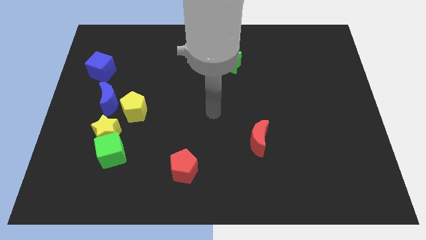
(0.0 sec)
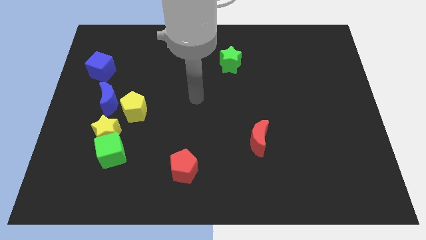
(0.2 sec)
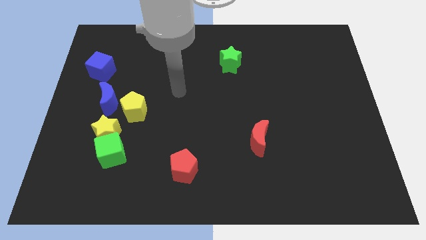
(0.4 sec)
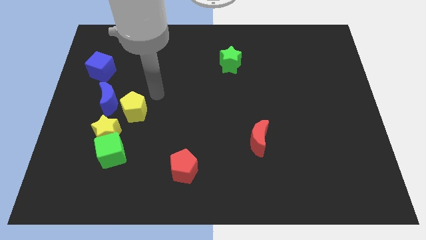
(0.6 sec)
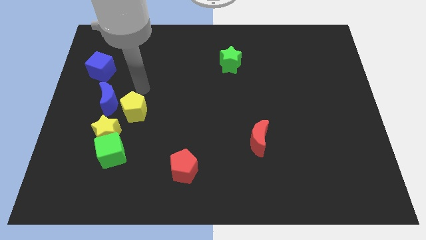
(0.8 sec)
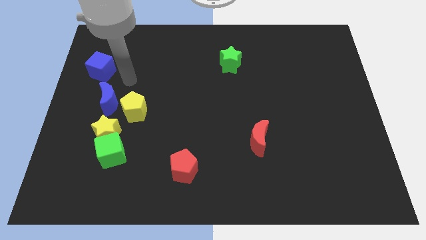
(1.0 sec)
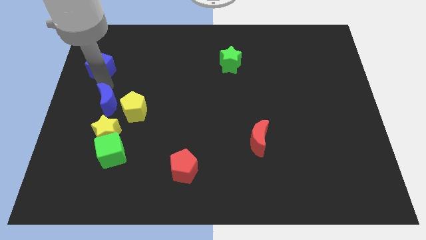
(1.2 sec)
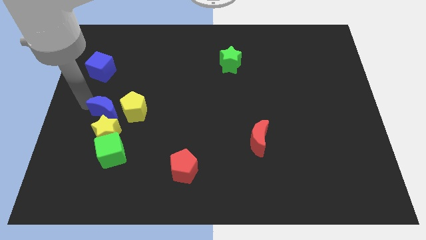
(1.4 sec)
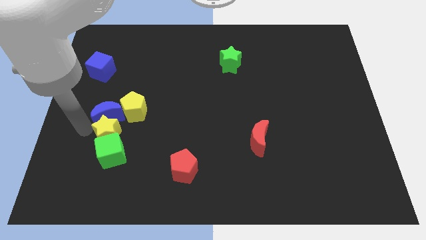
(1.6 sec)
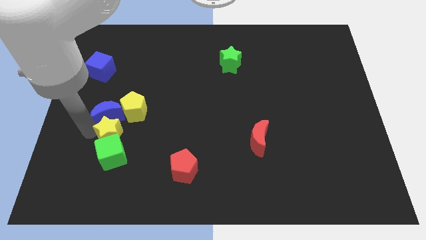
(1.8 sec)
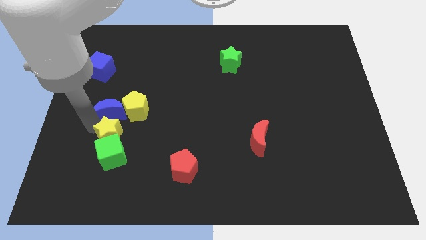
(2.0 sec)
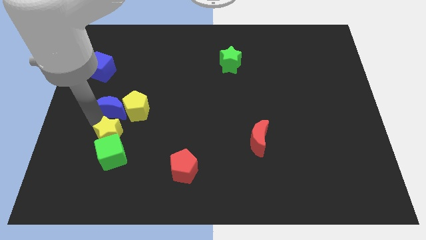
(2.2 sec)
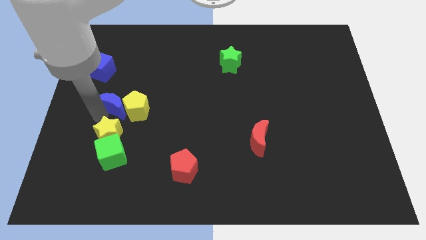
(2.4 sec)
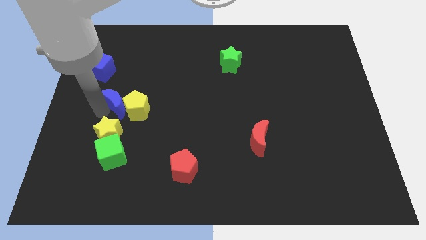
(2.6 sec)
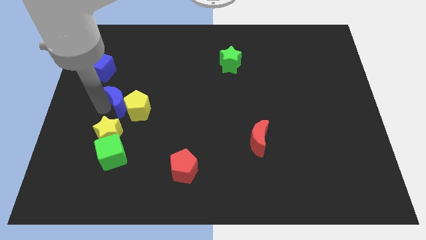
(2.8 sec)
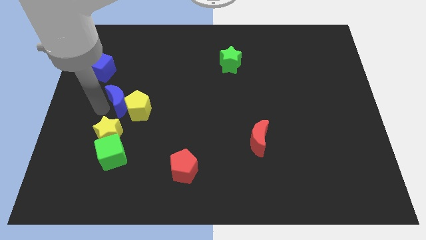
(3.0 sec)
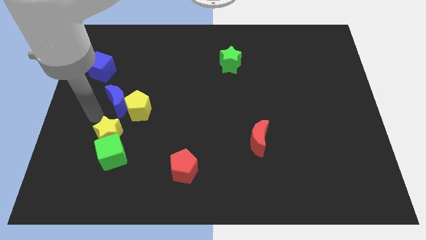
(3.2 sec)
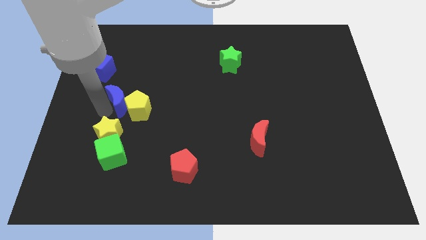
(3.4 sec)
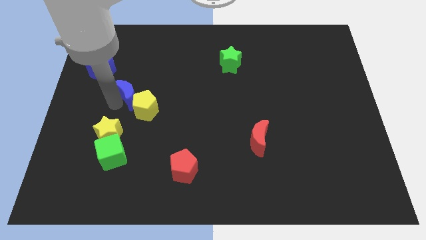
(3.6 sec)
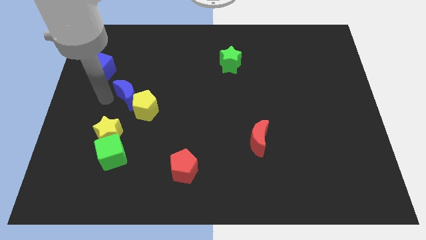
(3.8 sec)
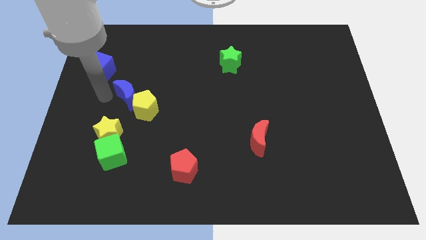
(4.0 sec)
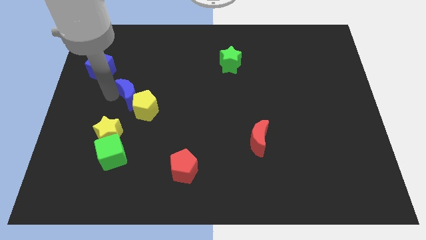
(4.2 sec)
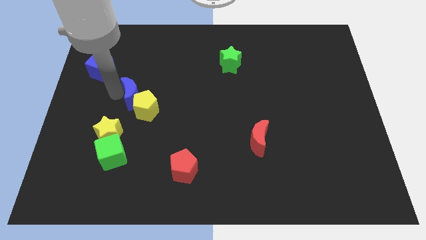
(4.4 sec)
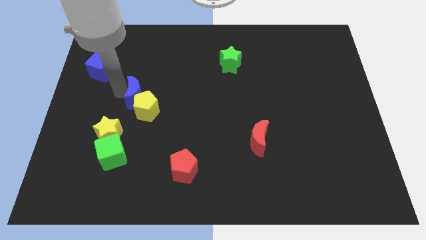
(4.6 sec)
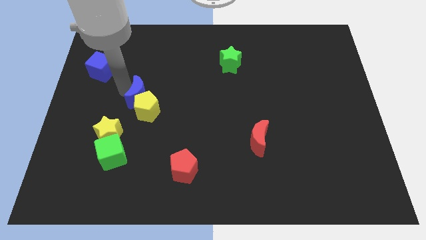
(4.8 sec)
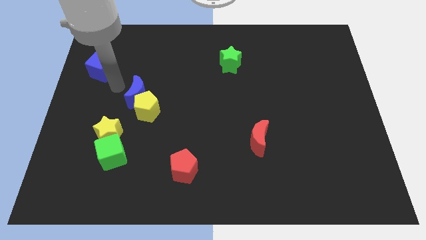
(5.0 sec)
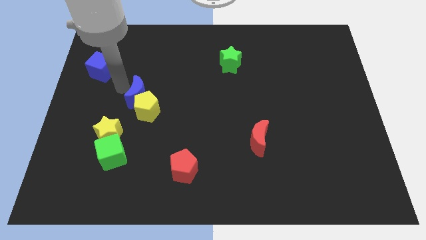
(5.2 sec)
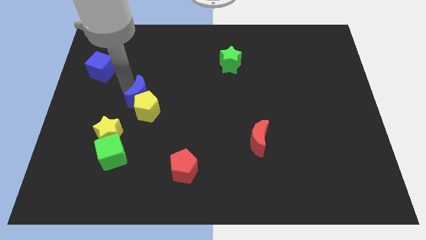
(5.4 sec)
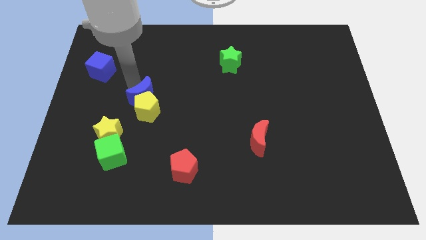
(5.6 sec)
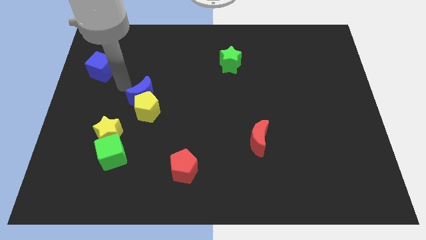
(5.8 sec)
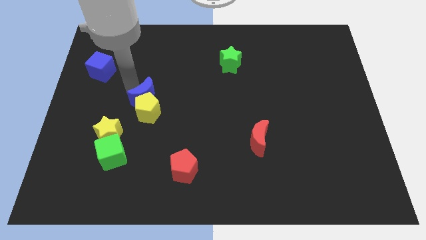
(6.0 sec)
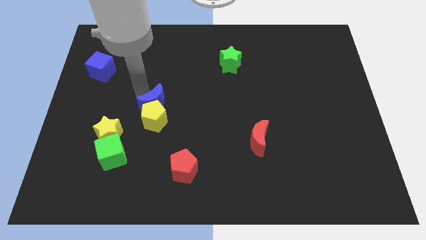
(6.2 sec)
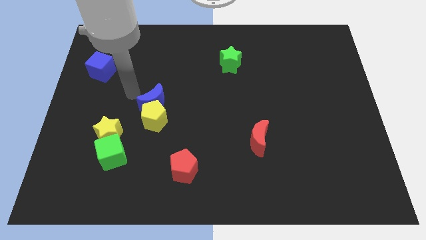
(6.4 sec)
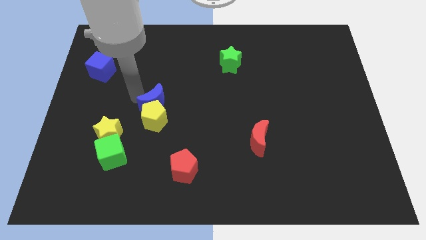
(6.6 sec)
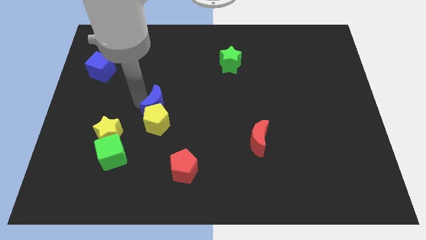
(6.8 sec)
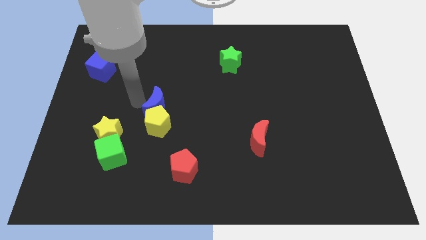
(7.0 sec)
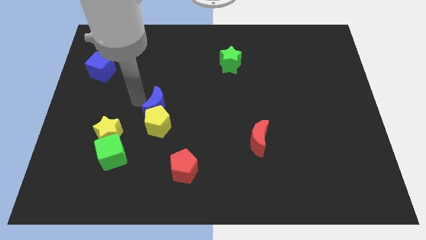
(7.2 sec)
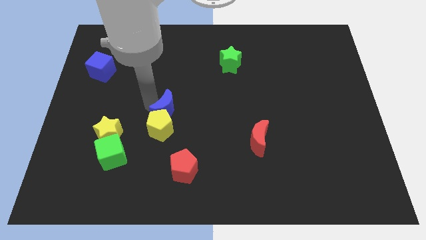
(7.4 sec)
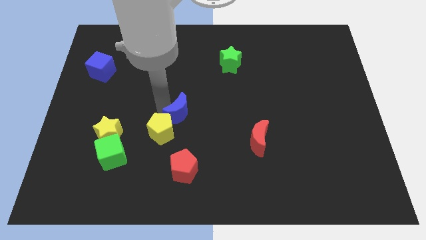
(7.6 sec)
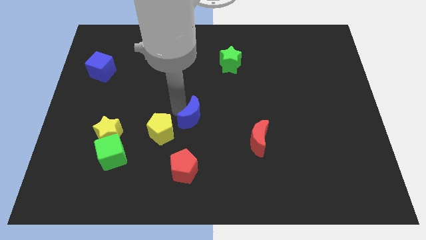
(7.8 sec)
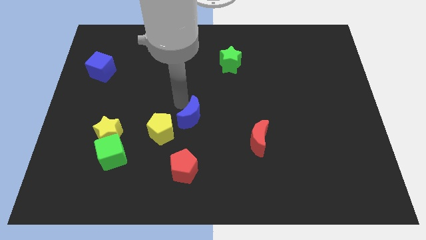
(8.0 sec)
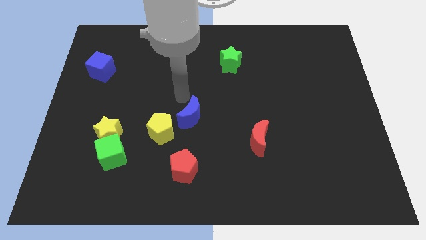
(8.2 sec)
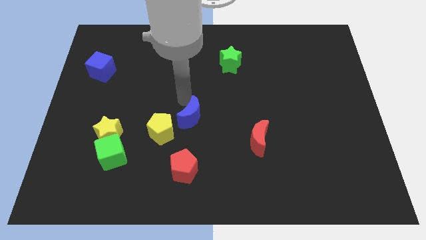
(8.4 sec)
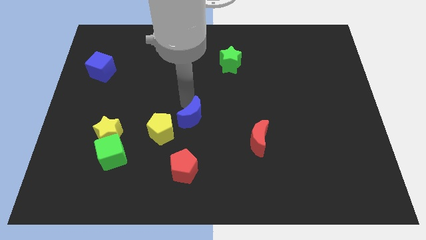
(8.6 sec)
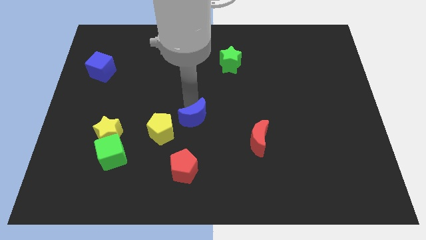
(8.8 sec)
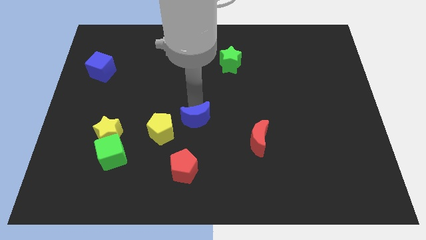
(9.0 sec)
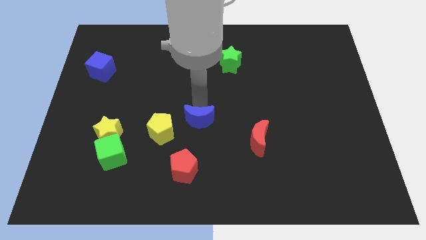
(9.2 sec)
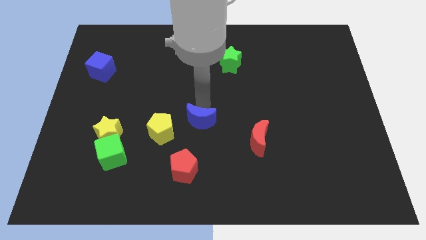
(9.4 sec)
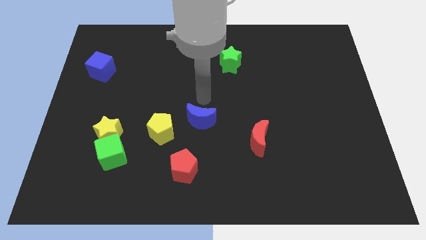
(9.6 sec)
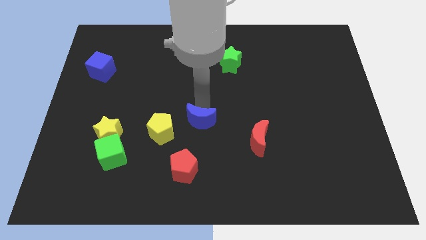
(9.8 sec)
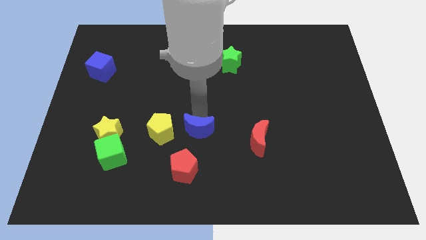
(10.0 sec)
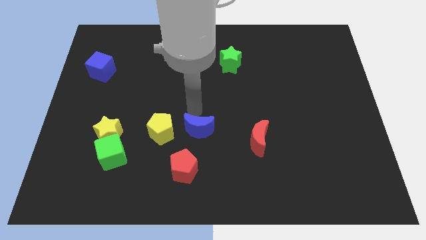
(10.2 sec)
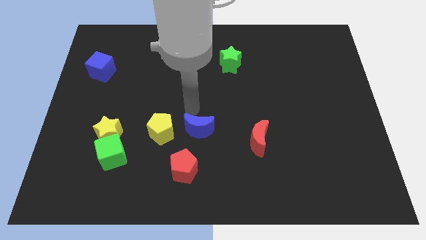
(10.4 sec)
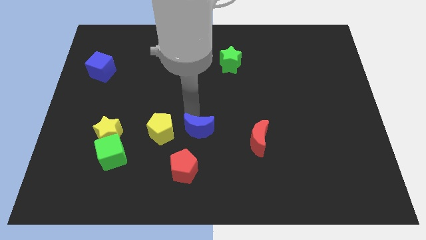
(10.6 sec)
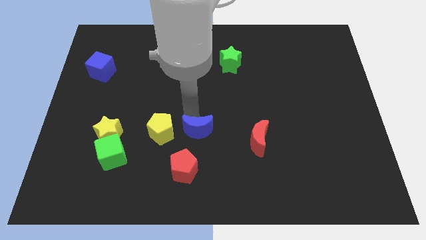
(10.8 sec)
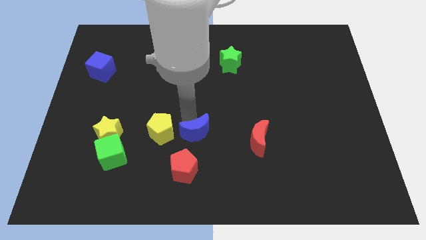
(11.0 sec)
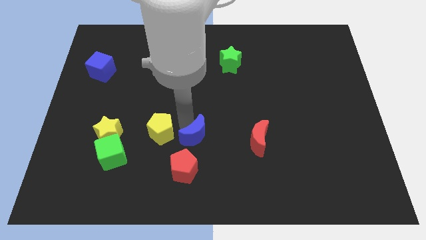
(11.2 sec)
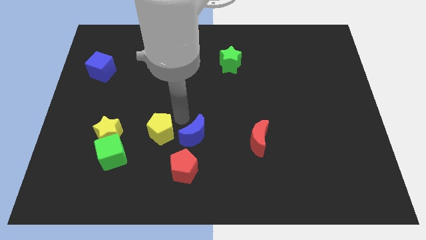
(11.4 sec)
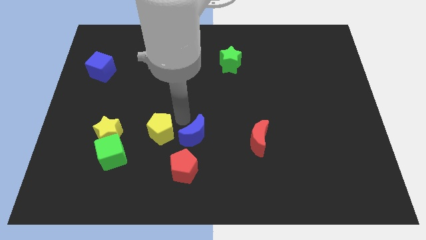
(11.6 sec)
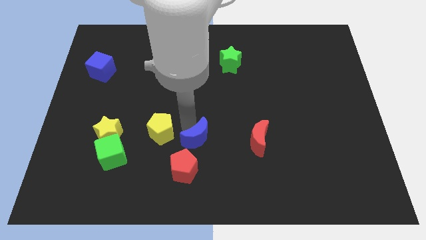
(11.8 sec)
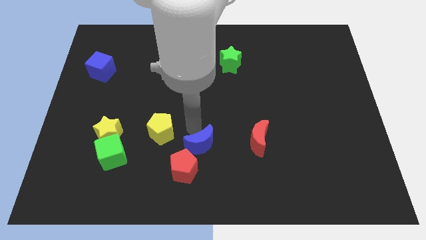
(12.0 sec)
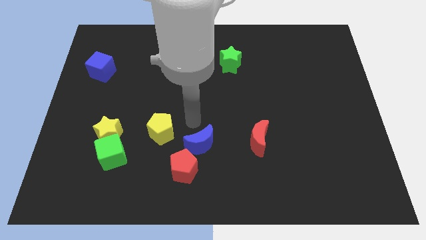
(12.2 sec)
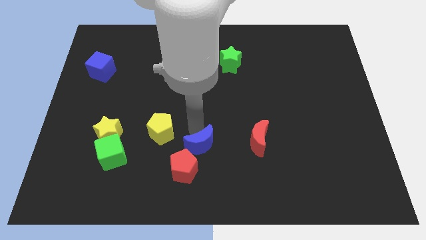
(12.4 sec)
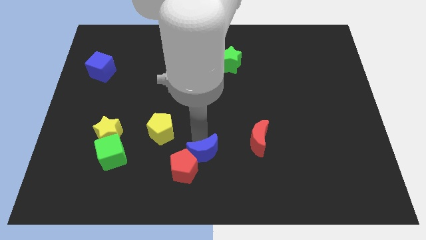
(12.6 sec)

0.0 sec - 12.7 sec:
put the blue moon to the bottom

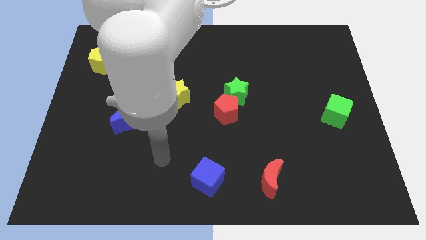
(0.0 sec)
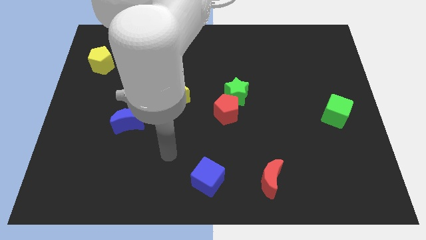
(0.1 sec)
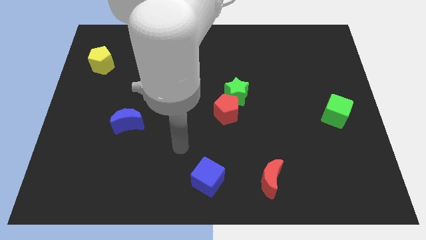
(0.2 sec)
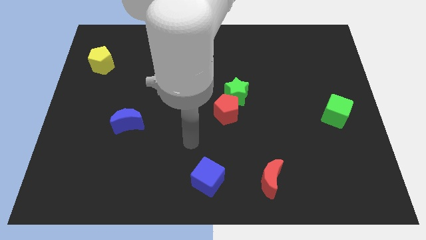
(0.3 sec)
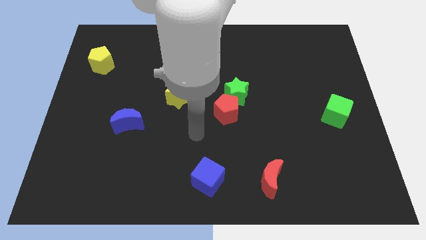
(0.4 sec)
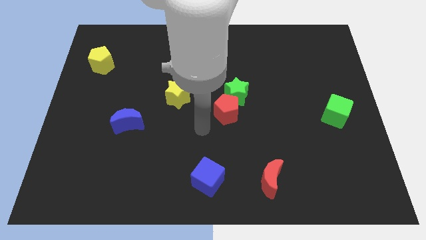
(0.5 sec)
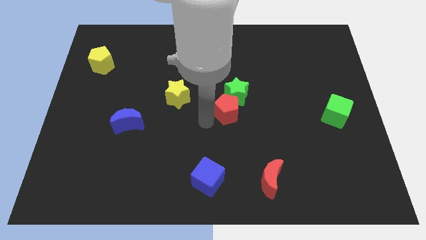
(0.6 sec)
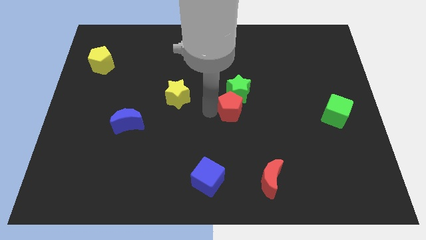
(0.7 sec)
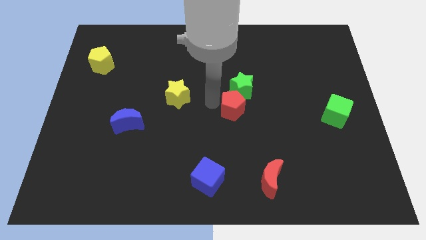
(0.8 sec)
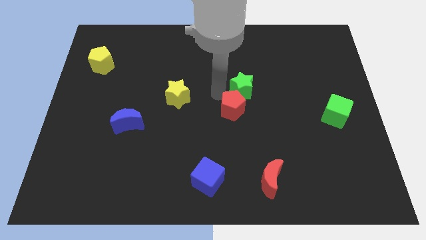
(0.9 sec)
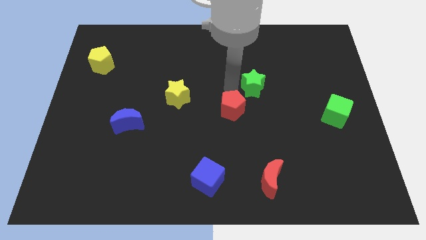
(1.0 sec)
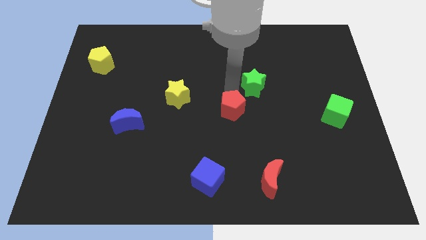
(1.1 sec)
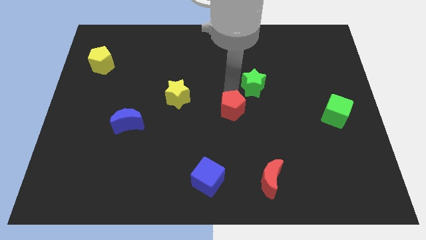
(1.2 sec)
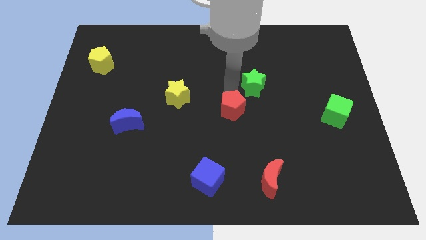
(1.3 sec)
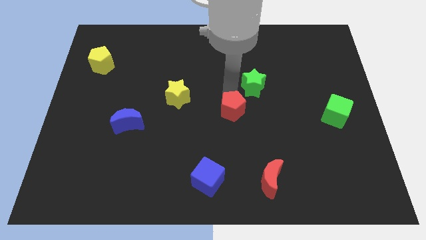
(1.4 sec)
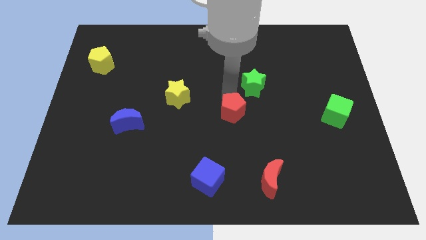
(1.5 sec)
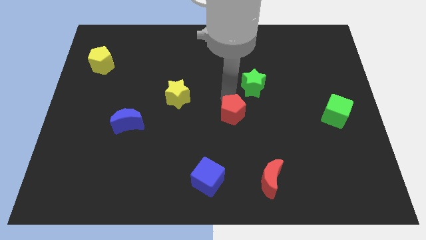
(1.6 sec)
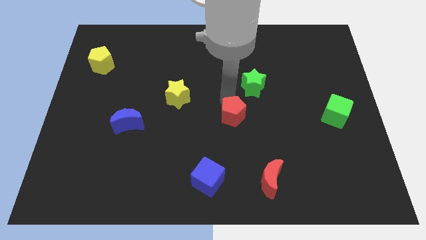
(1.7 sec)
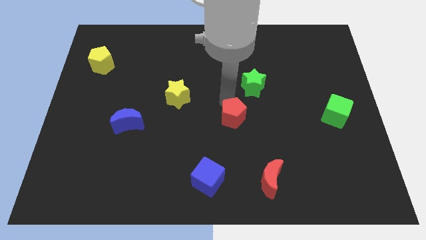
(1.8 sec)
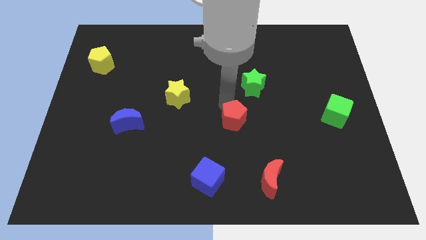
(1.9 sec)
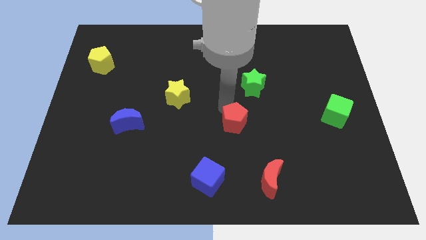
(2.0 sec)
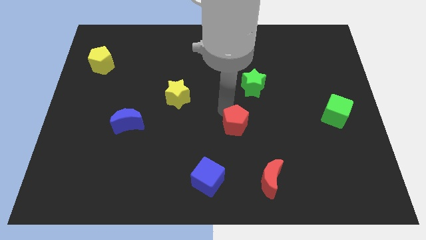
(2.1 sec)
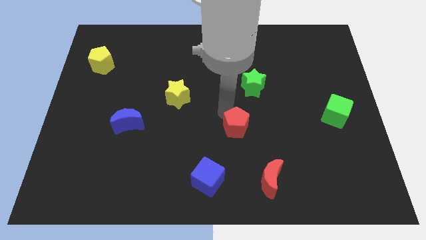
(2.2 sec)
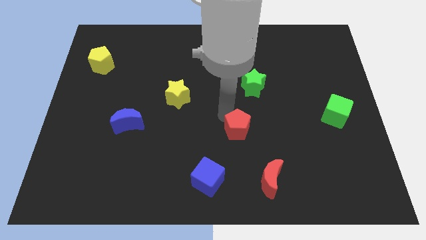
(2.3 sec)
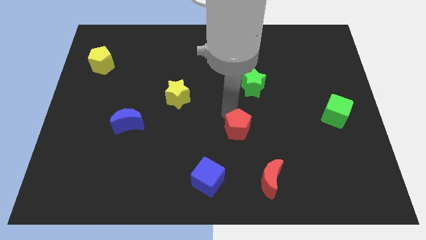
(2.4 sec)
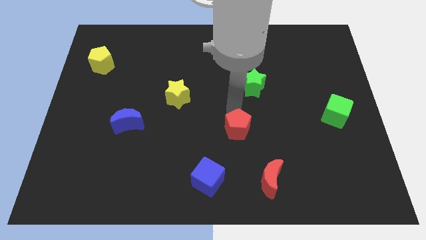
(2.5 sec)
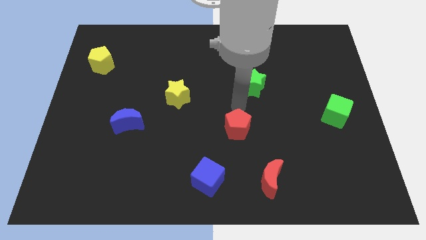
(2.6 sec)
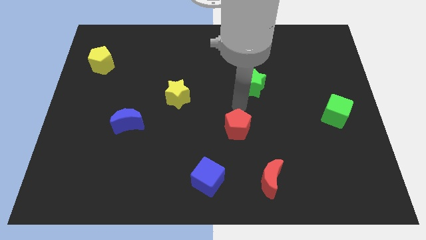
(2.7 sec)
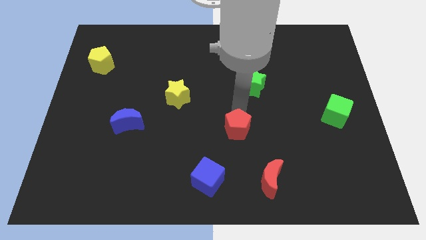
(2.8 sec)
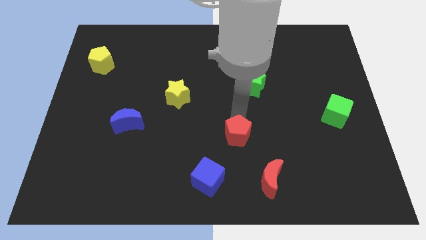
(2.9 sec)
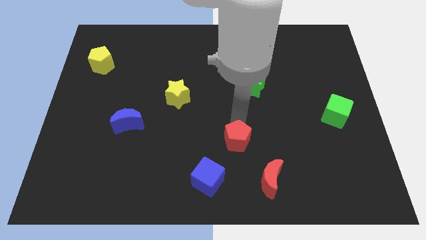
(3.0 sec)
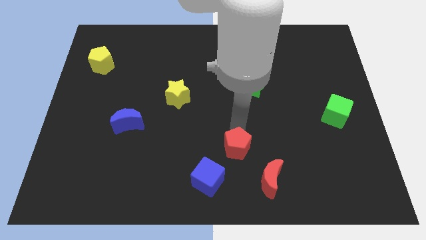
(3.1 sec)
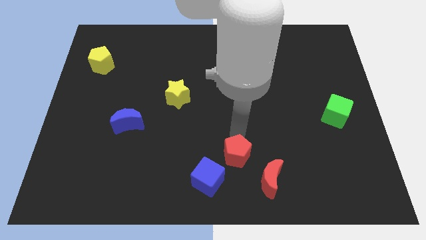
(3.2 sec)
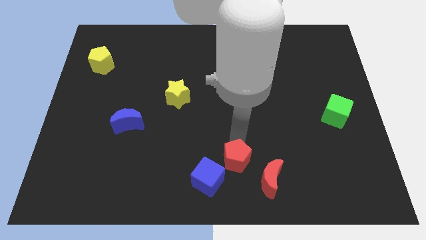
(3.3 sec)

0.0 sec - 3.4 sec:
push the red pentagon to the bottom side
